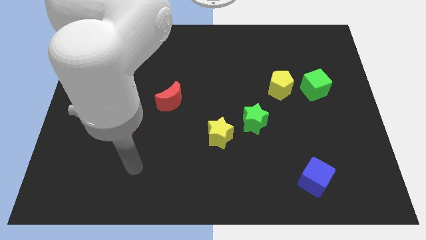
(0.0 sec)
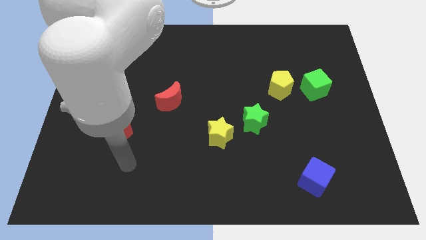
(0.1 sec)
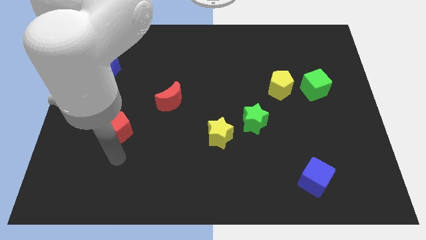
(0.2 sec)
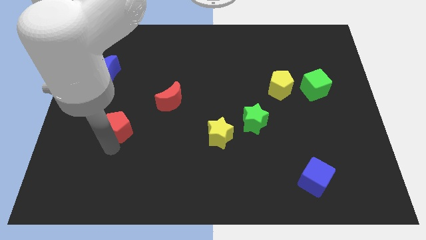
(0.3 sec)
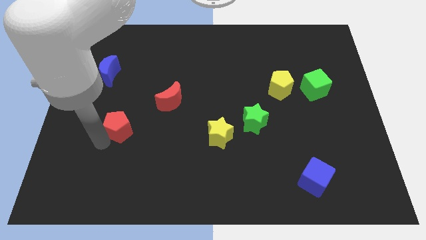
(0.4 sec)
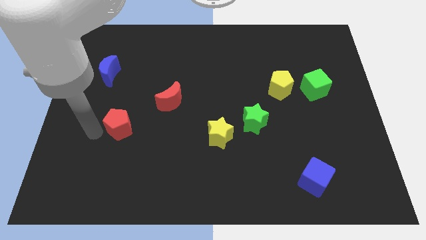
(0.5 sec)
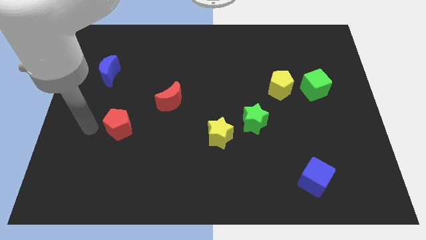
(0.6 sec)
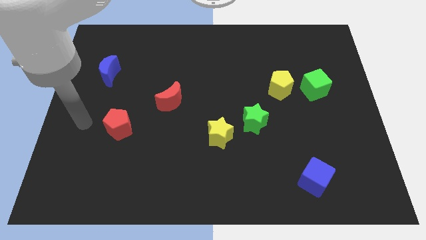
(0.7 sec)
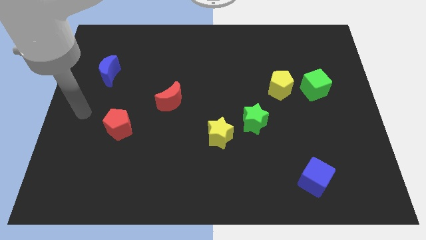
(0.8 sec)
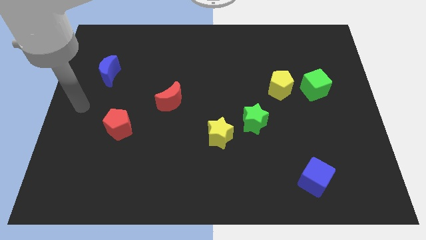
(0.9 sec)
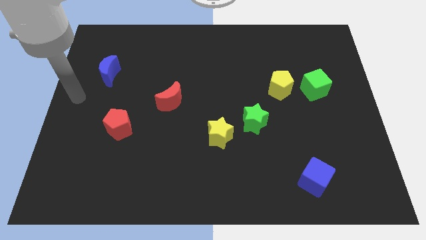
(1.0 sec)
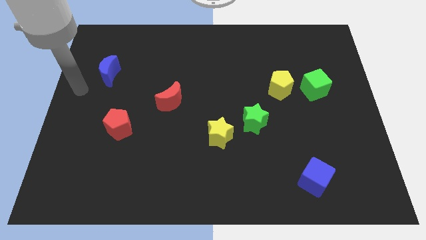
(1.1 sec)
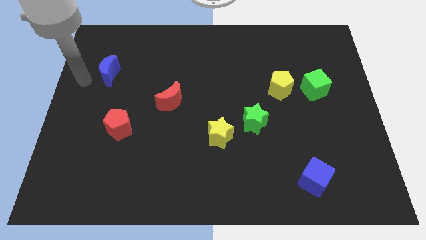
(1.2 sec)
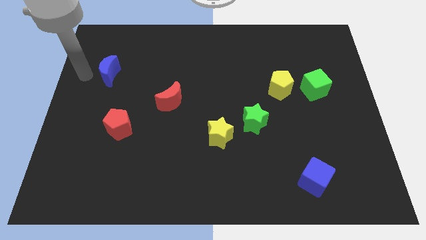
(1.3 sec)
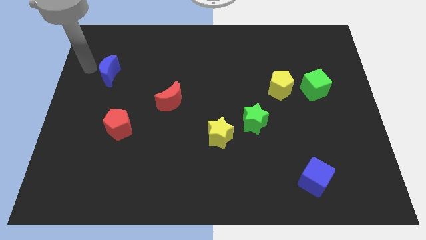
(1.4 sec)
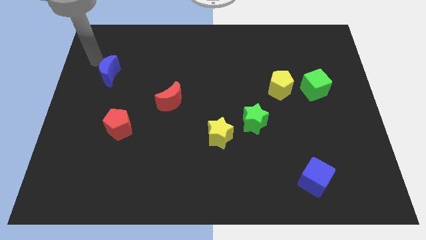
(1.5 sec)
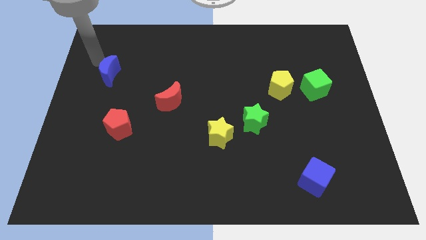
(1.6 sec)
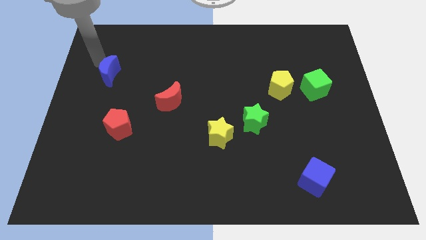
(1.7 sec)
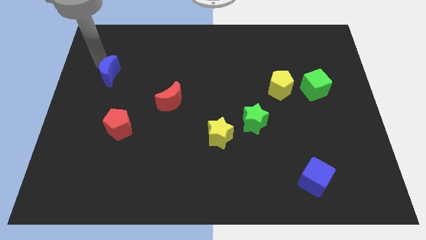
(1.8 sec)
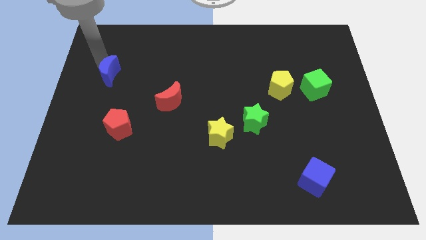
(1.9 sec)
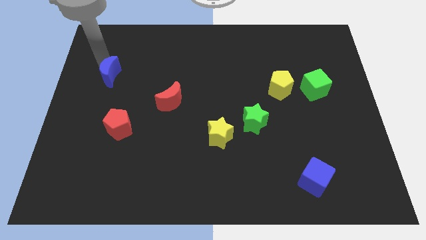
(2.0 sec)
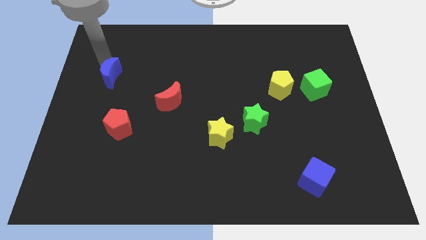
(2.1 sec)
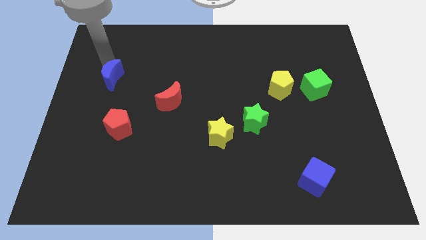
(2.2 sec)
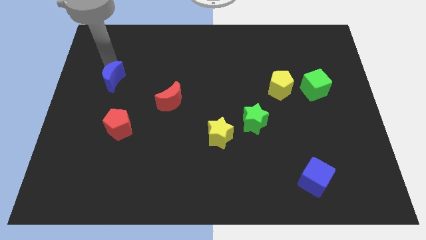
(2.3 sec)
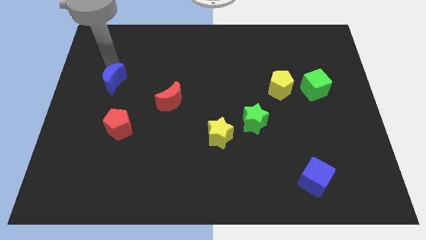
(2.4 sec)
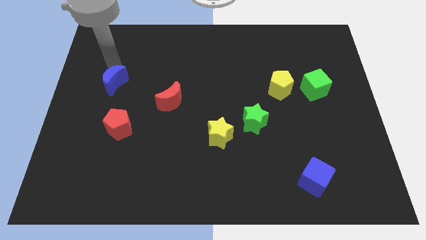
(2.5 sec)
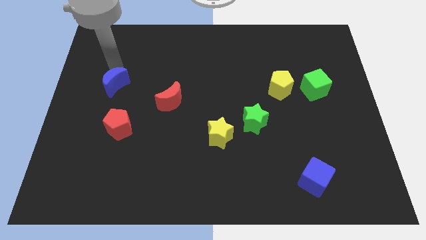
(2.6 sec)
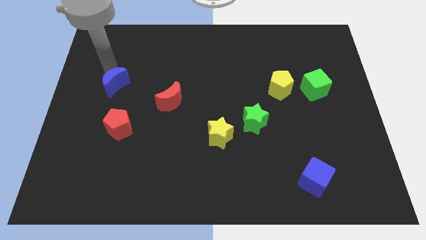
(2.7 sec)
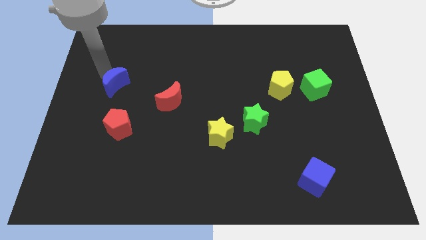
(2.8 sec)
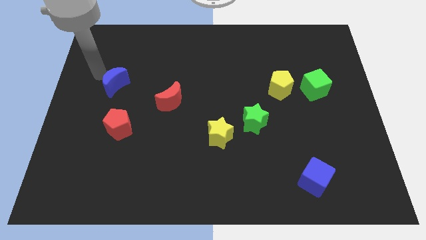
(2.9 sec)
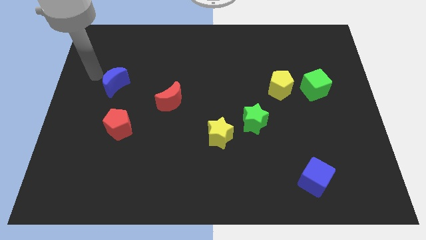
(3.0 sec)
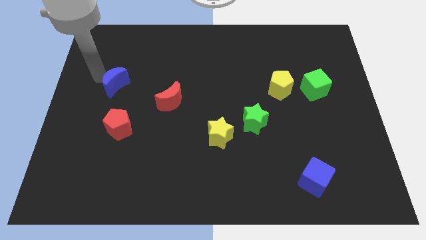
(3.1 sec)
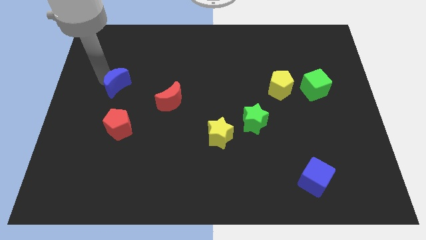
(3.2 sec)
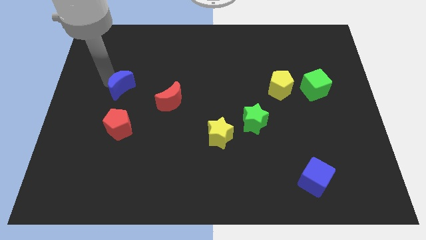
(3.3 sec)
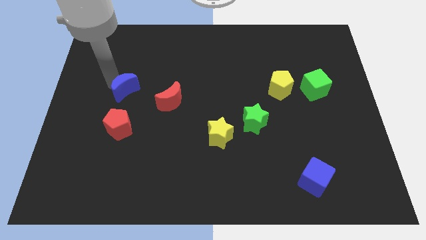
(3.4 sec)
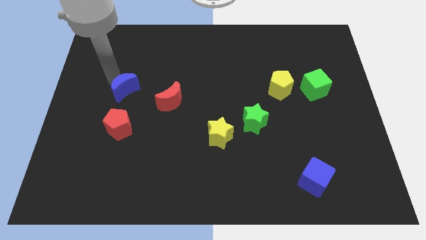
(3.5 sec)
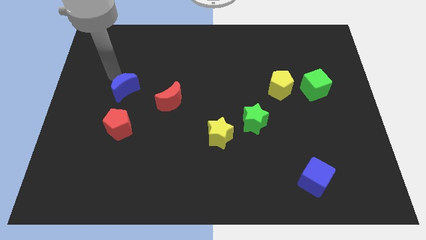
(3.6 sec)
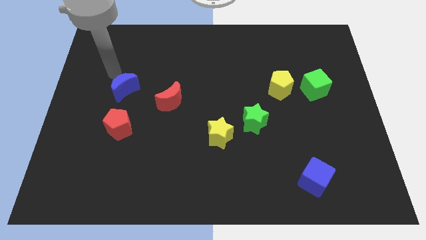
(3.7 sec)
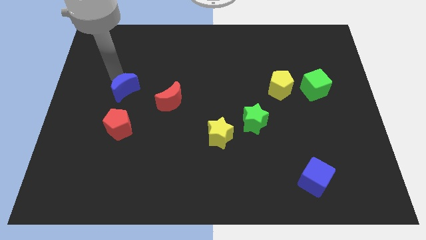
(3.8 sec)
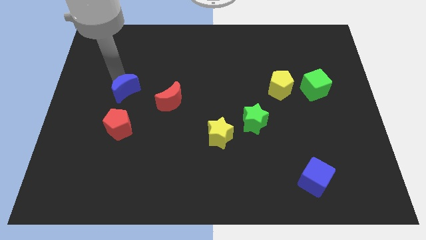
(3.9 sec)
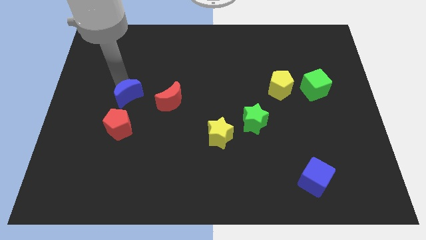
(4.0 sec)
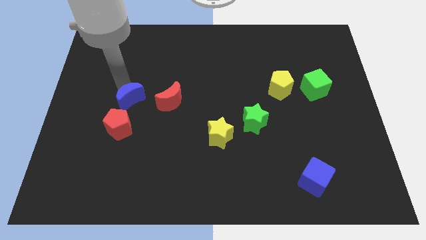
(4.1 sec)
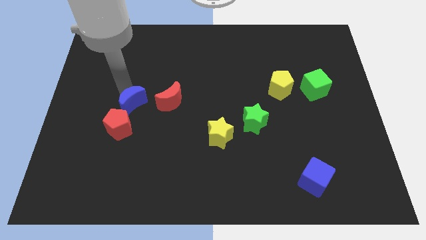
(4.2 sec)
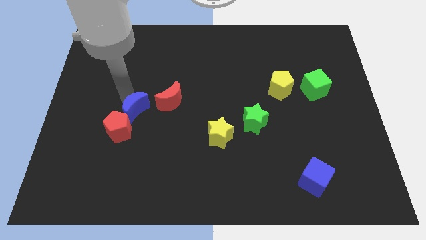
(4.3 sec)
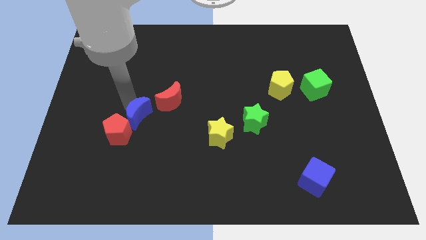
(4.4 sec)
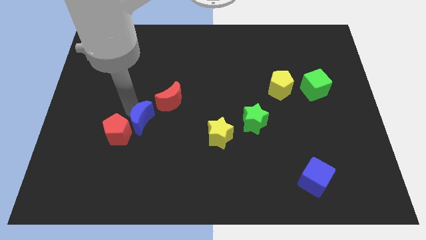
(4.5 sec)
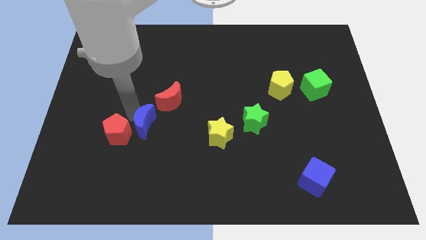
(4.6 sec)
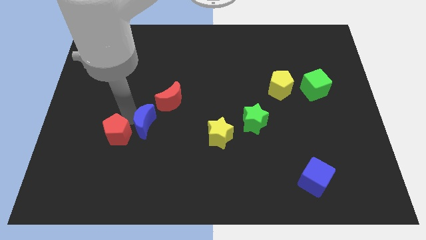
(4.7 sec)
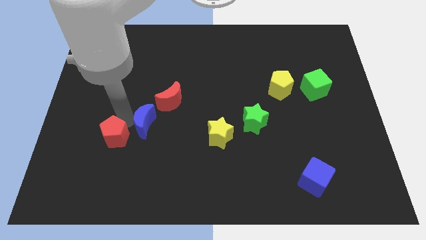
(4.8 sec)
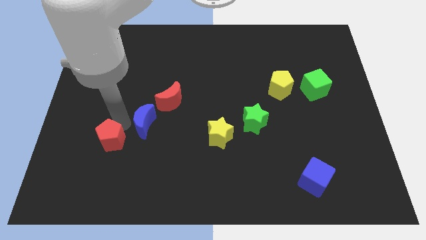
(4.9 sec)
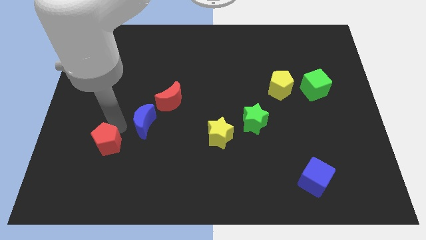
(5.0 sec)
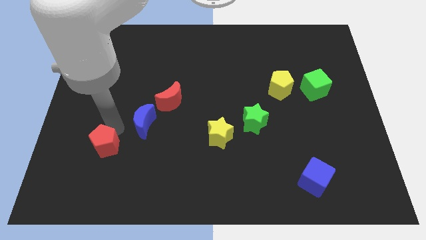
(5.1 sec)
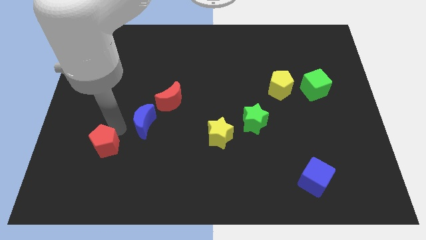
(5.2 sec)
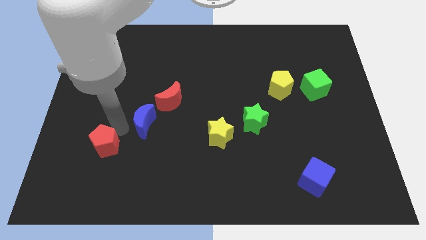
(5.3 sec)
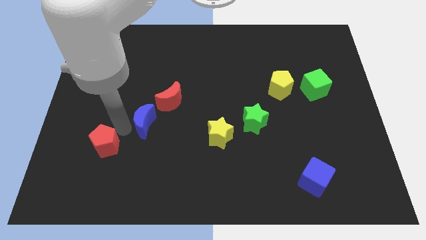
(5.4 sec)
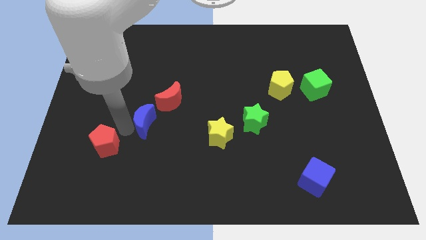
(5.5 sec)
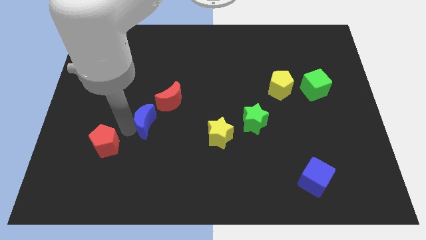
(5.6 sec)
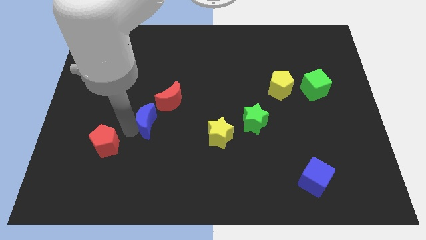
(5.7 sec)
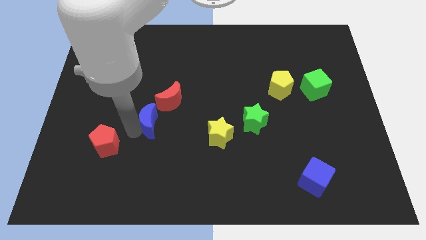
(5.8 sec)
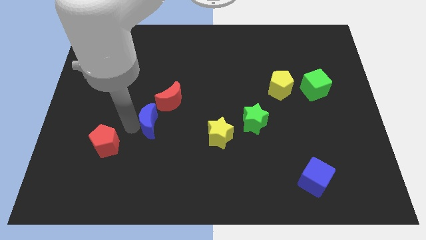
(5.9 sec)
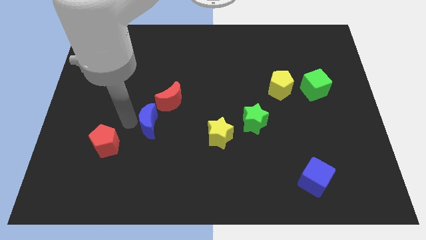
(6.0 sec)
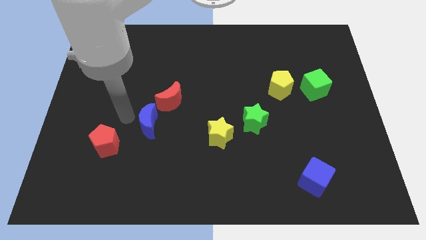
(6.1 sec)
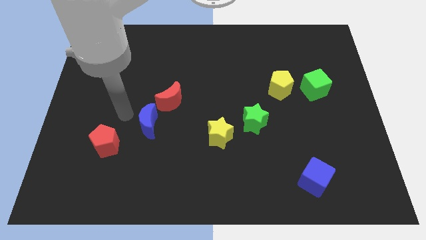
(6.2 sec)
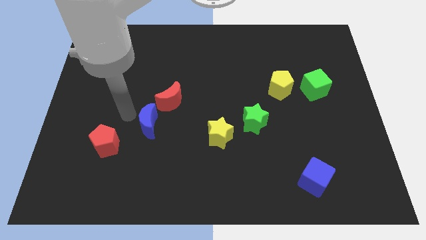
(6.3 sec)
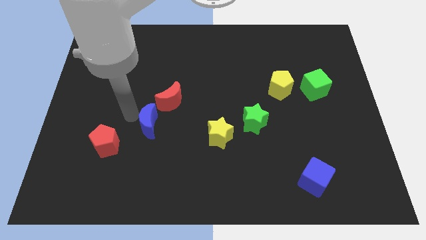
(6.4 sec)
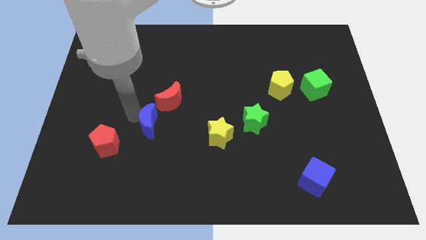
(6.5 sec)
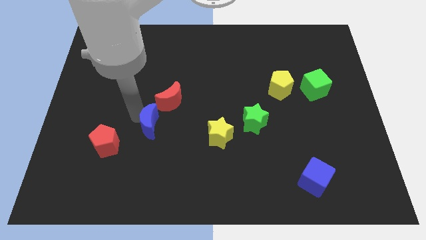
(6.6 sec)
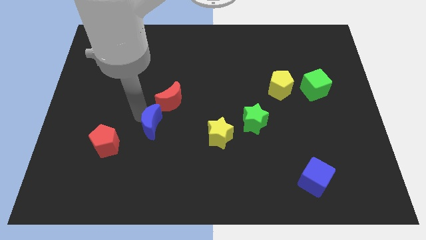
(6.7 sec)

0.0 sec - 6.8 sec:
push the blue moon downwards and then to the right

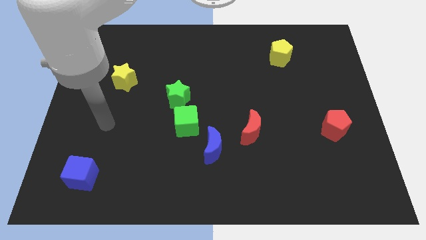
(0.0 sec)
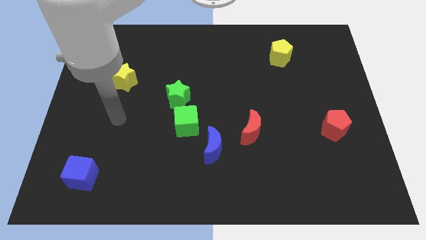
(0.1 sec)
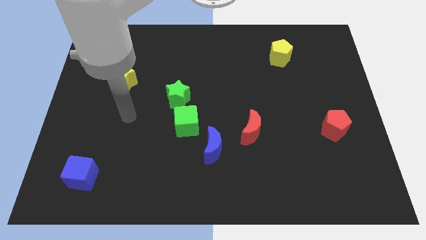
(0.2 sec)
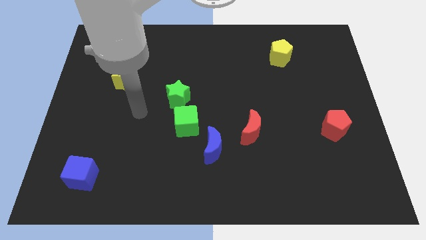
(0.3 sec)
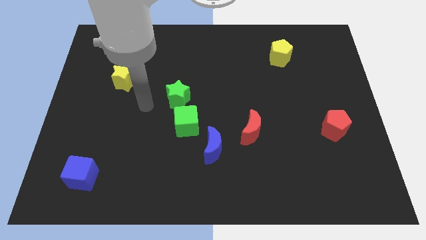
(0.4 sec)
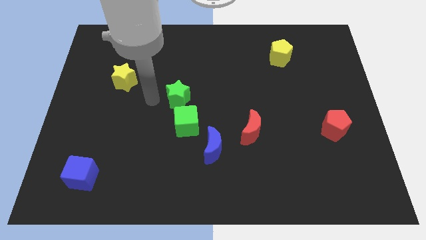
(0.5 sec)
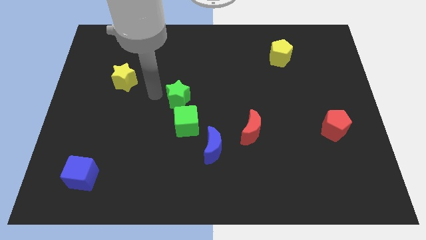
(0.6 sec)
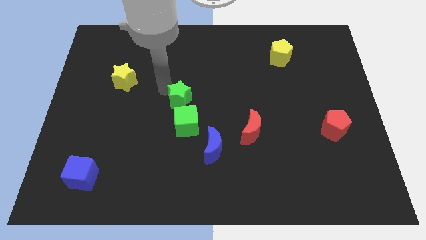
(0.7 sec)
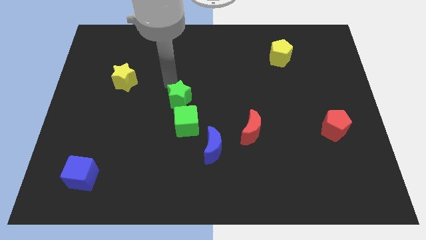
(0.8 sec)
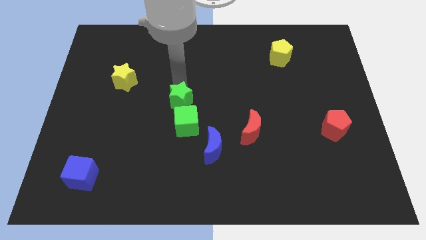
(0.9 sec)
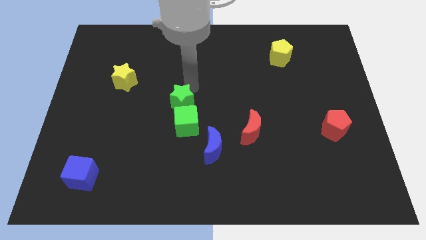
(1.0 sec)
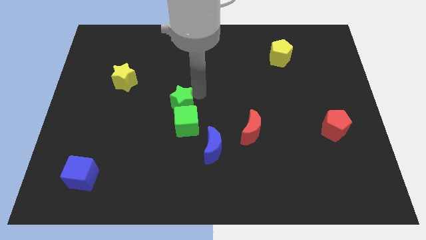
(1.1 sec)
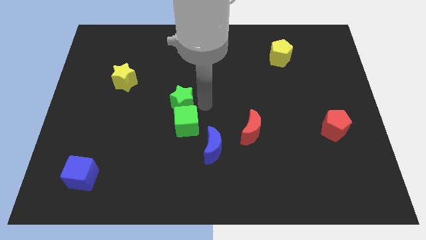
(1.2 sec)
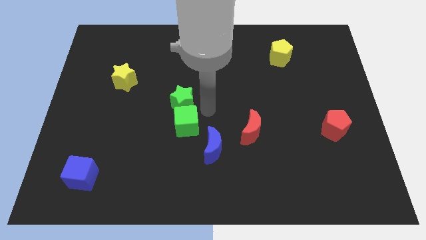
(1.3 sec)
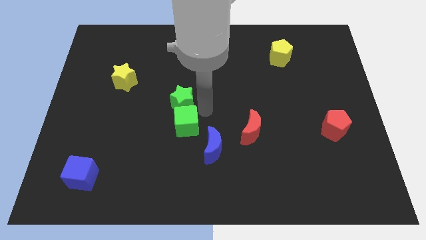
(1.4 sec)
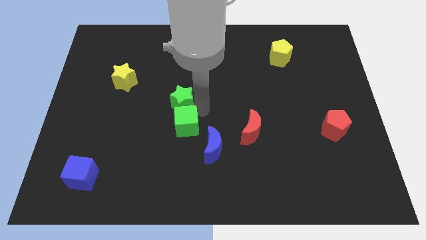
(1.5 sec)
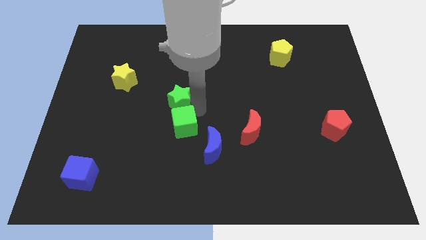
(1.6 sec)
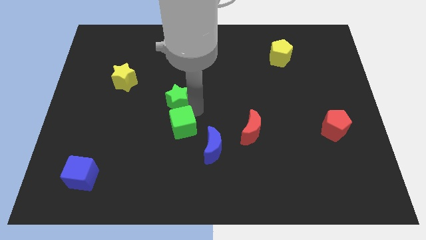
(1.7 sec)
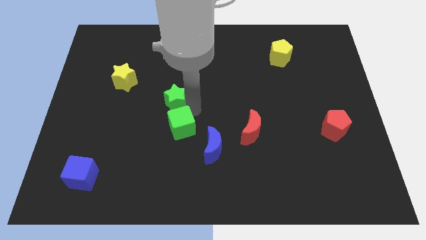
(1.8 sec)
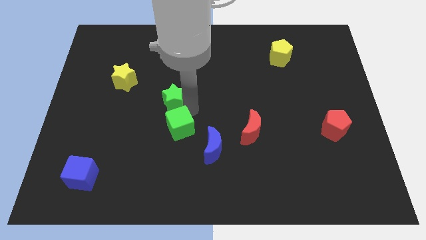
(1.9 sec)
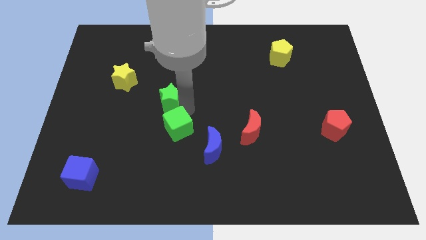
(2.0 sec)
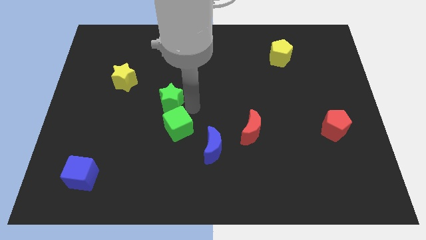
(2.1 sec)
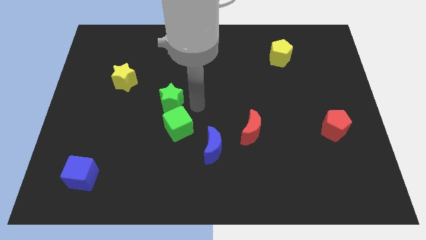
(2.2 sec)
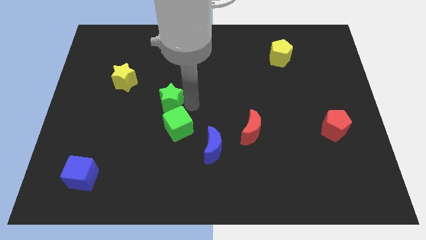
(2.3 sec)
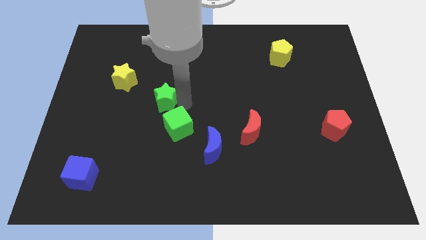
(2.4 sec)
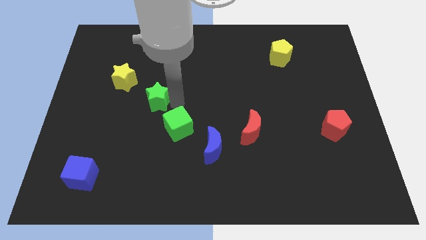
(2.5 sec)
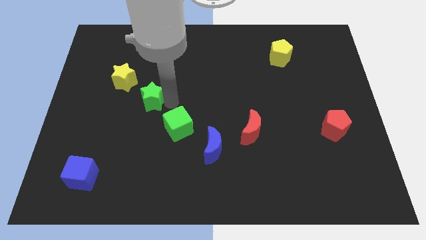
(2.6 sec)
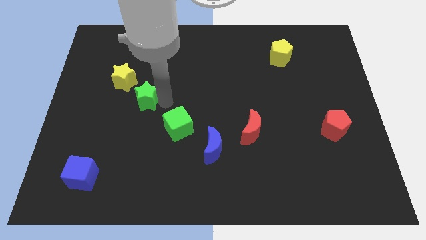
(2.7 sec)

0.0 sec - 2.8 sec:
push the green star a little bit to the left
